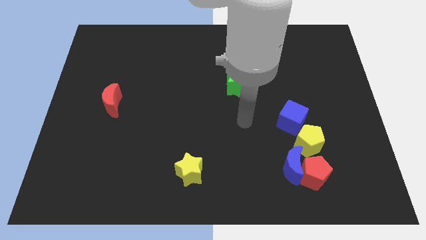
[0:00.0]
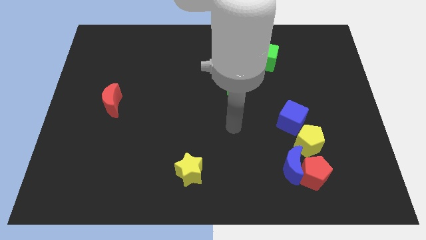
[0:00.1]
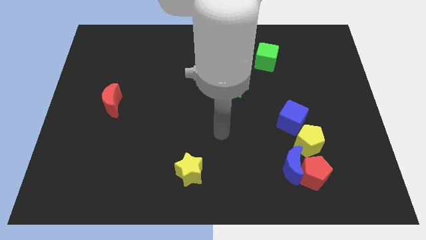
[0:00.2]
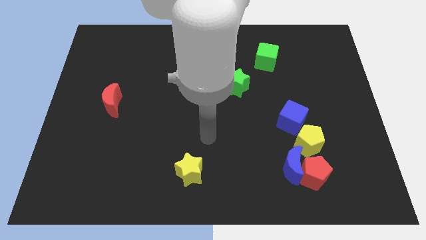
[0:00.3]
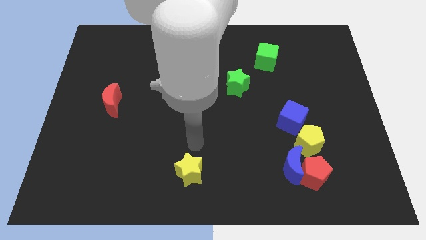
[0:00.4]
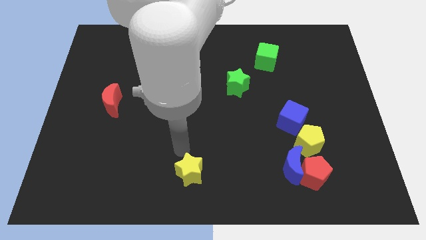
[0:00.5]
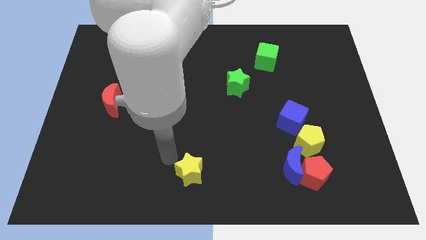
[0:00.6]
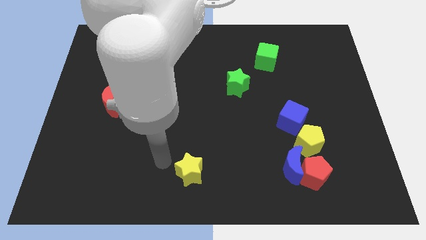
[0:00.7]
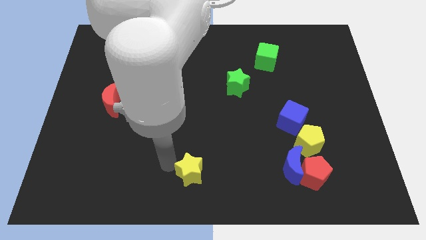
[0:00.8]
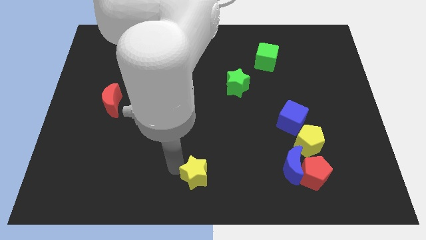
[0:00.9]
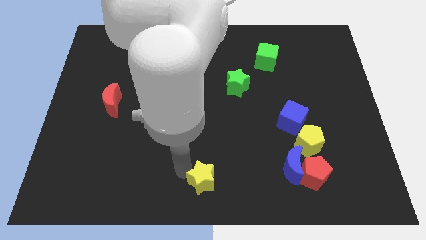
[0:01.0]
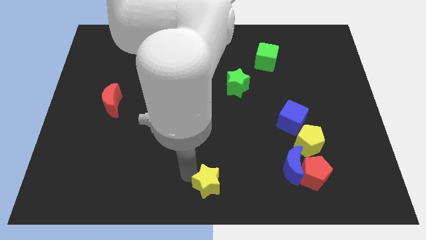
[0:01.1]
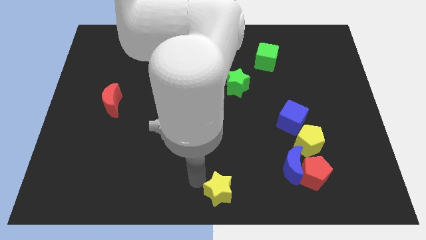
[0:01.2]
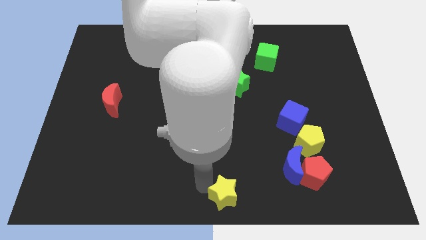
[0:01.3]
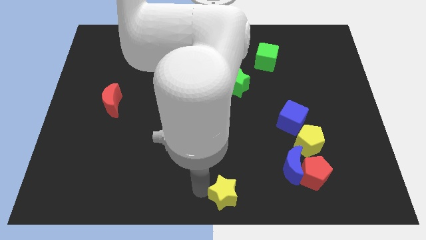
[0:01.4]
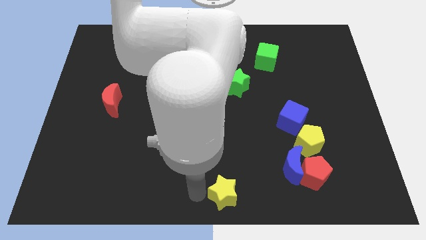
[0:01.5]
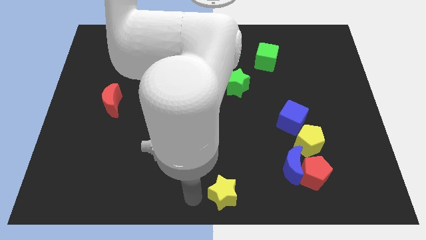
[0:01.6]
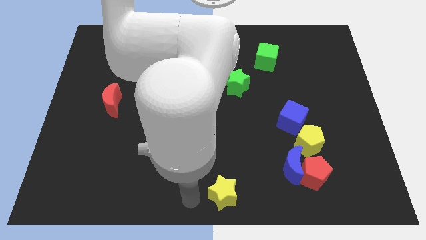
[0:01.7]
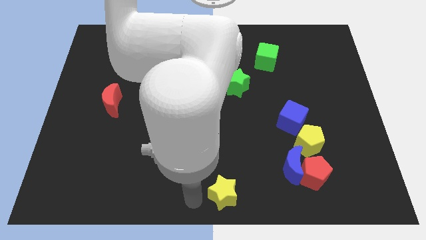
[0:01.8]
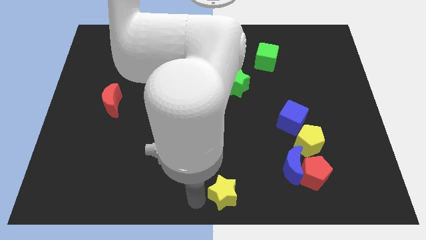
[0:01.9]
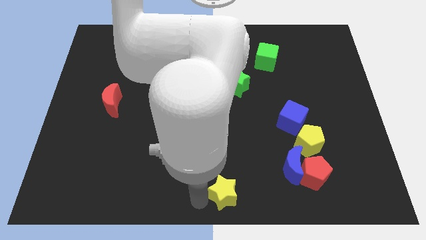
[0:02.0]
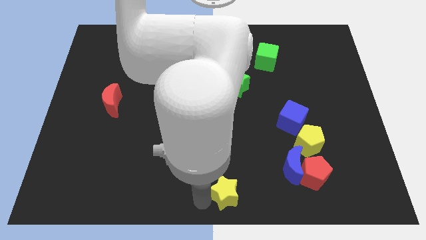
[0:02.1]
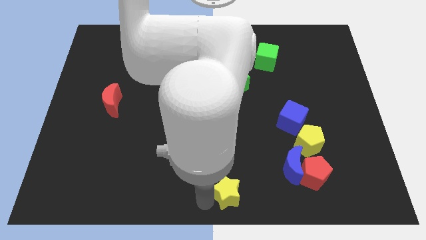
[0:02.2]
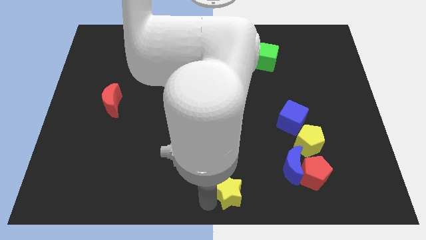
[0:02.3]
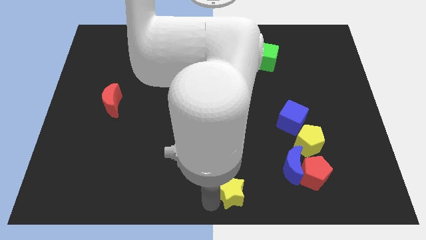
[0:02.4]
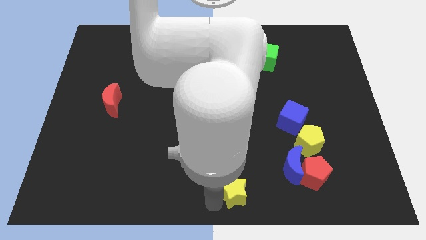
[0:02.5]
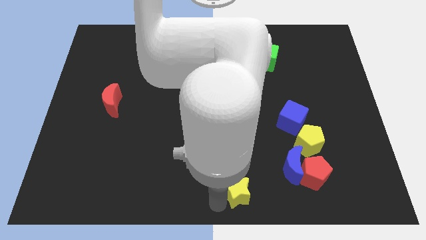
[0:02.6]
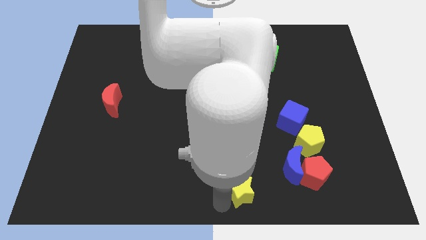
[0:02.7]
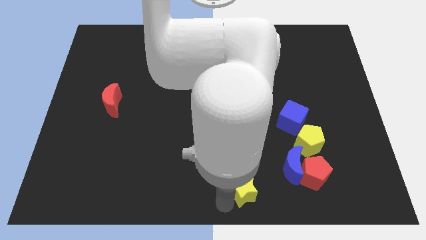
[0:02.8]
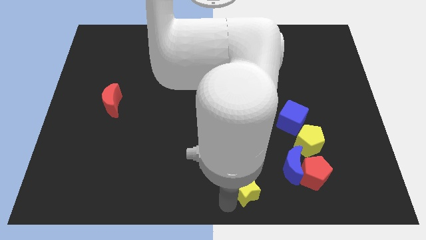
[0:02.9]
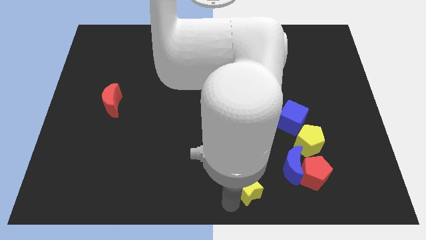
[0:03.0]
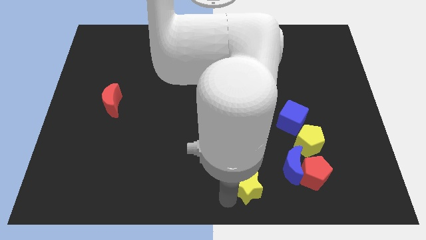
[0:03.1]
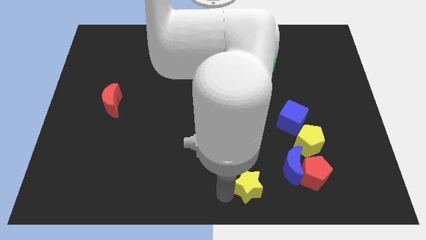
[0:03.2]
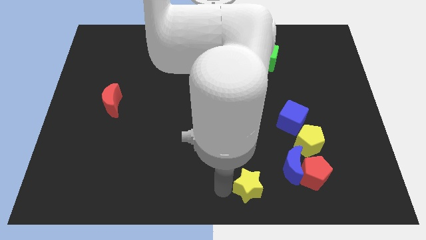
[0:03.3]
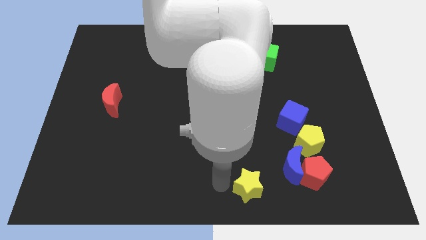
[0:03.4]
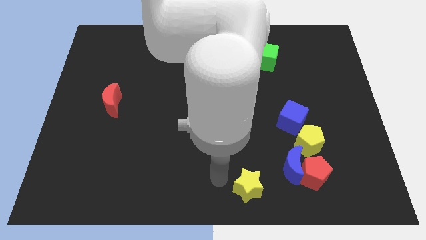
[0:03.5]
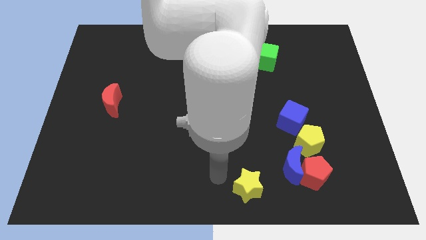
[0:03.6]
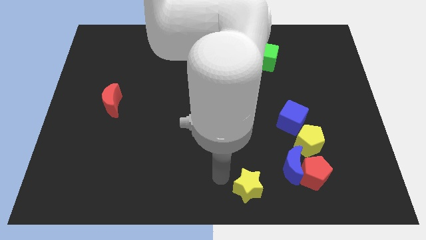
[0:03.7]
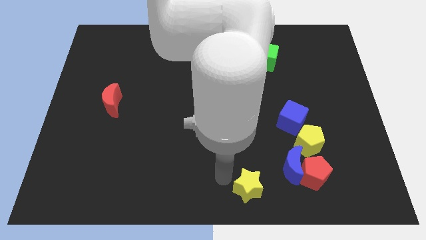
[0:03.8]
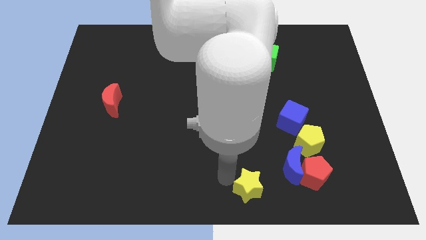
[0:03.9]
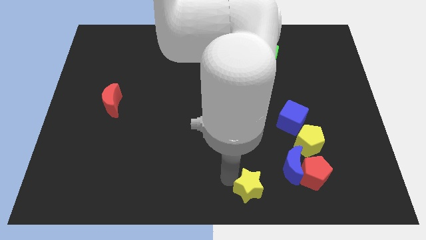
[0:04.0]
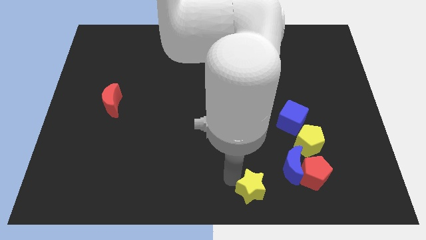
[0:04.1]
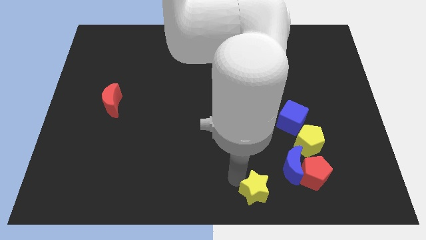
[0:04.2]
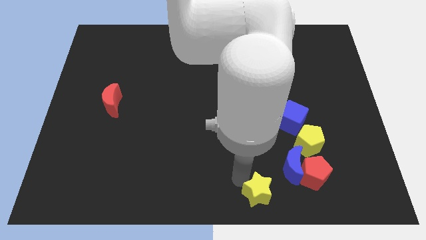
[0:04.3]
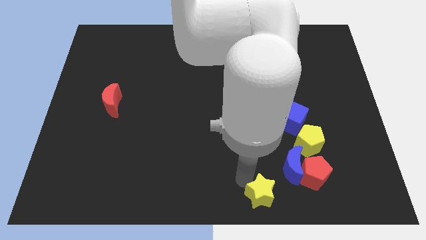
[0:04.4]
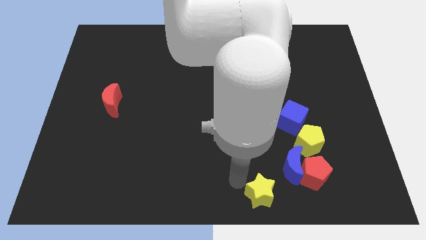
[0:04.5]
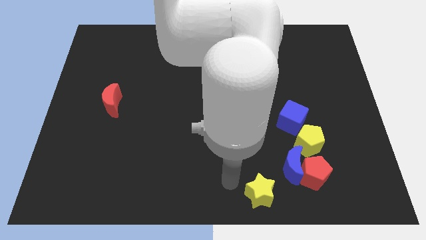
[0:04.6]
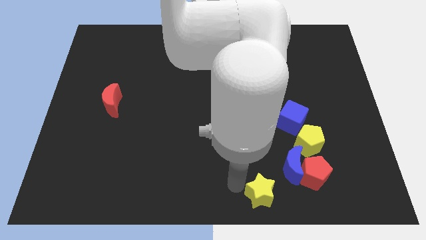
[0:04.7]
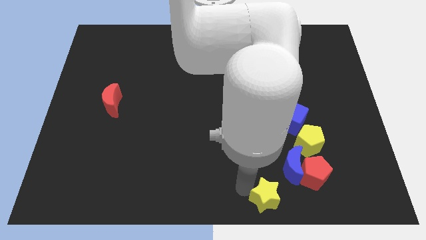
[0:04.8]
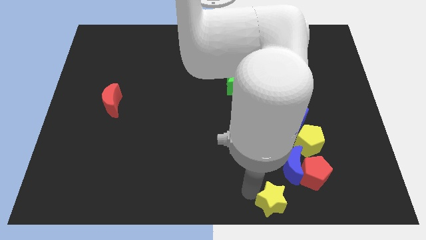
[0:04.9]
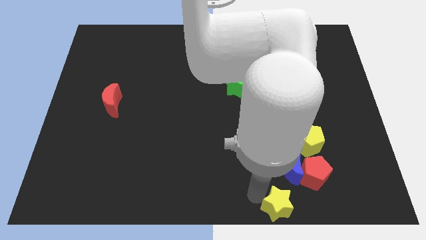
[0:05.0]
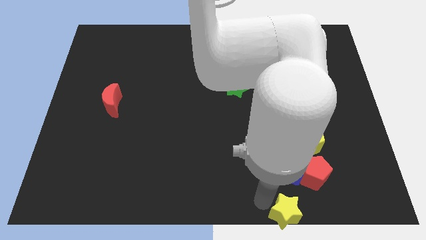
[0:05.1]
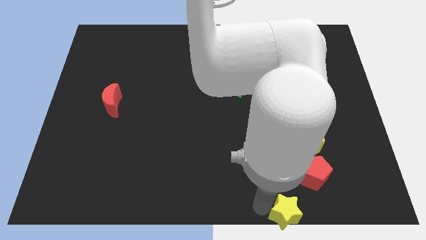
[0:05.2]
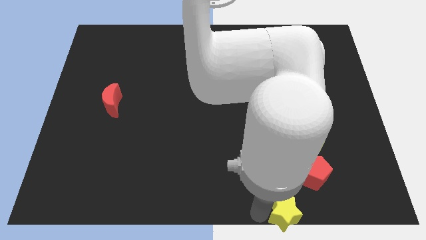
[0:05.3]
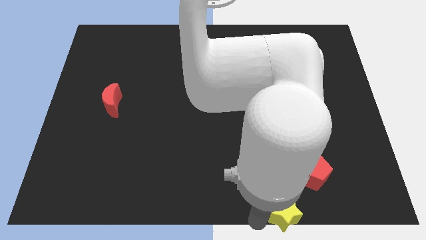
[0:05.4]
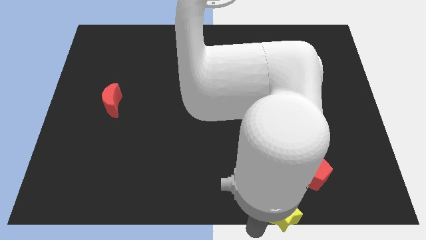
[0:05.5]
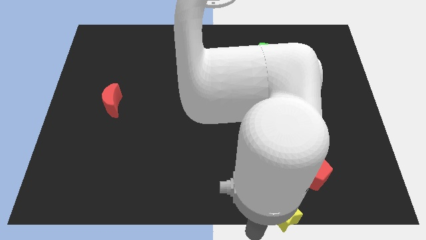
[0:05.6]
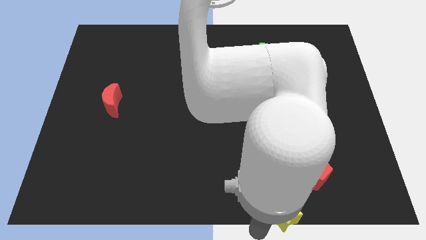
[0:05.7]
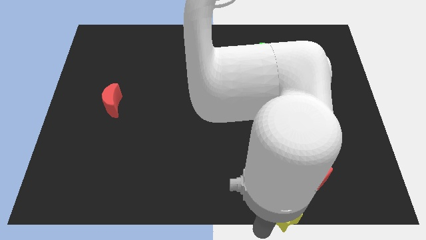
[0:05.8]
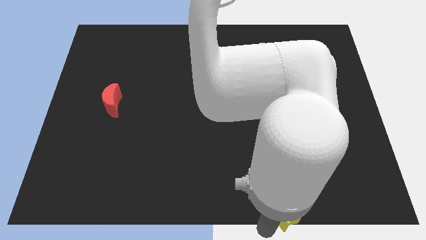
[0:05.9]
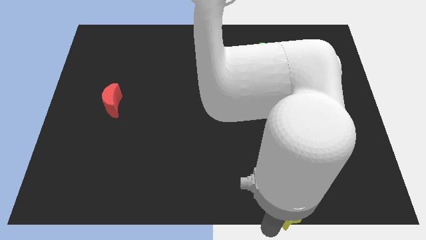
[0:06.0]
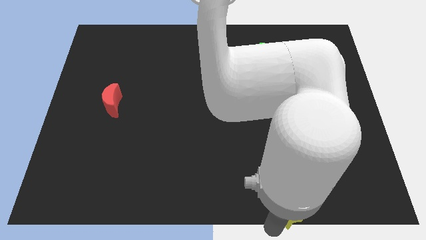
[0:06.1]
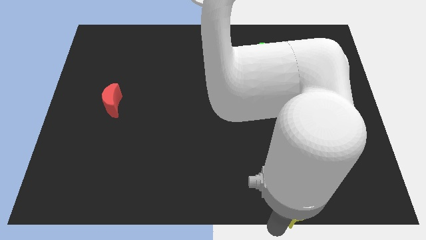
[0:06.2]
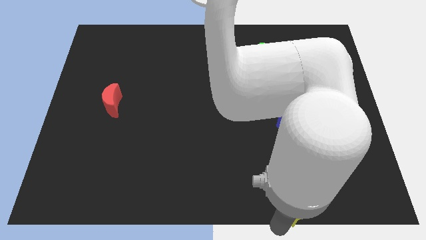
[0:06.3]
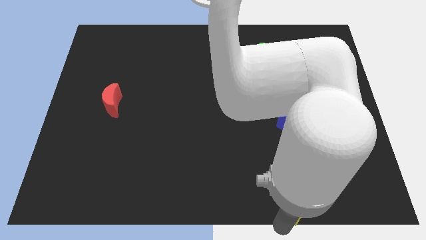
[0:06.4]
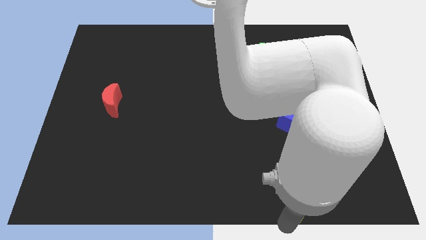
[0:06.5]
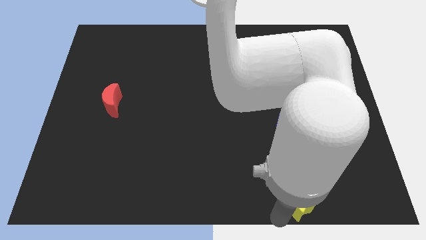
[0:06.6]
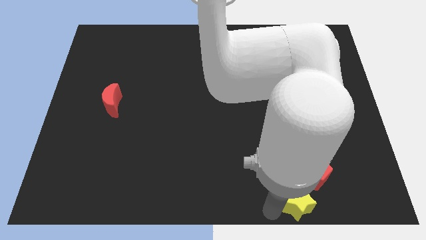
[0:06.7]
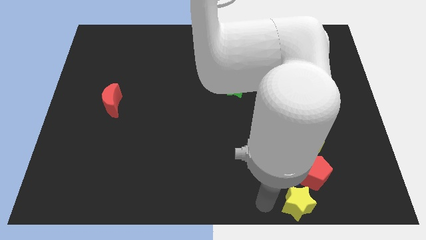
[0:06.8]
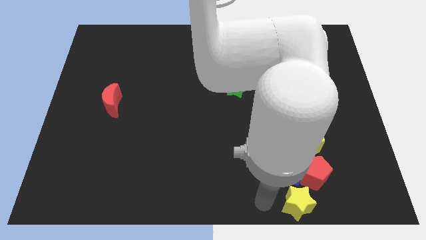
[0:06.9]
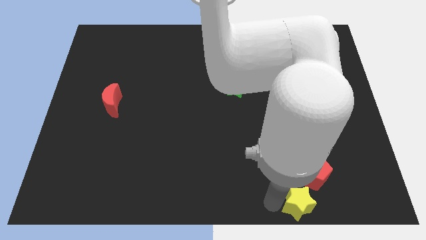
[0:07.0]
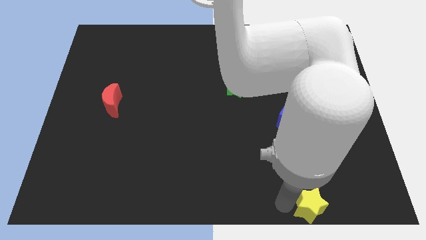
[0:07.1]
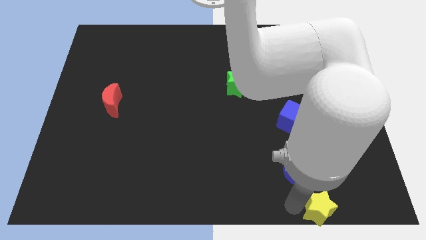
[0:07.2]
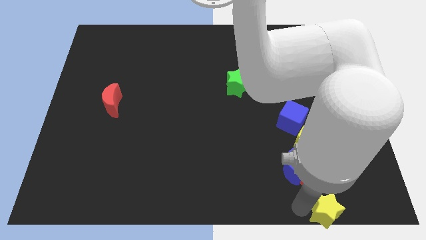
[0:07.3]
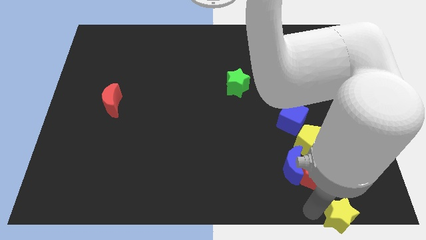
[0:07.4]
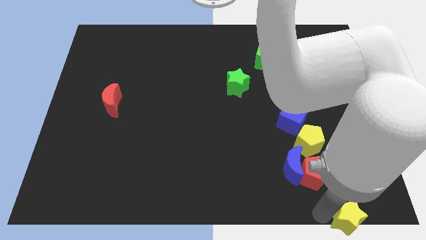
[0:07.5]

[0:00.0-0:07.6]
push the yellow star to the bottom right

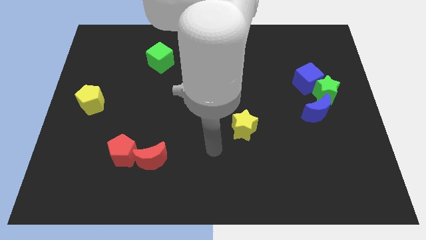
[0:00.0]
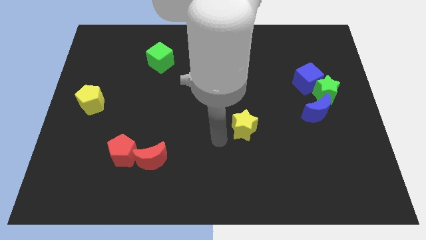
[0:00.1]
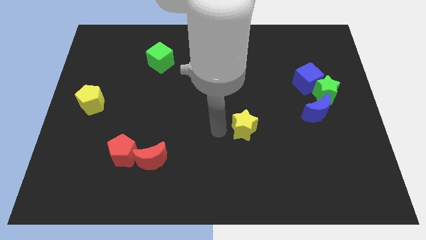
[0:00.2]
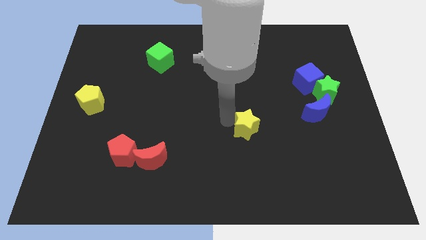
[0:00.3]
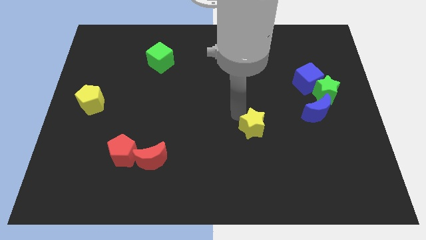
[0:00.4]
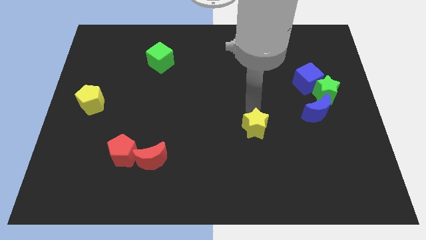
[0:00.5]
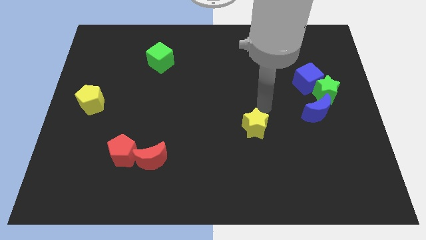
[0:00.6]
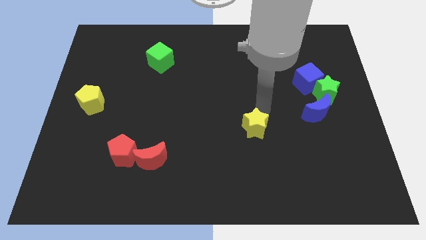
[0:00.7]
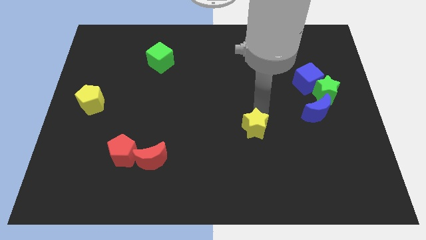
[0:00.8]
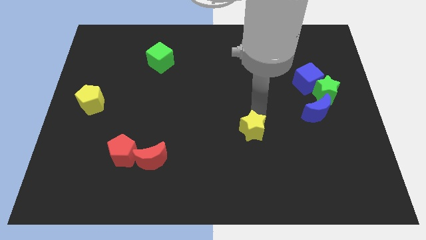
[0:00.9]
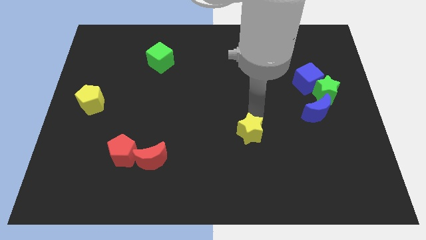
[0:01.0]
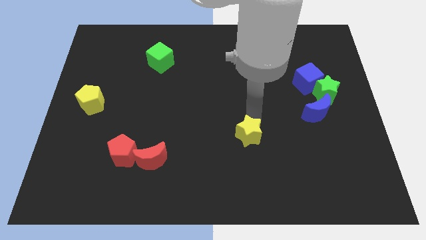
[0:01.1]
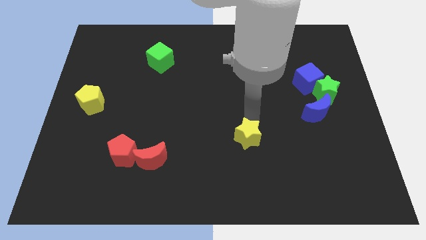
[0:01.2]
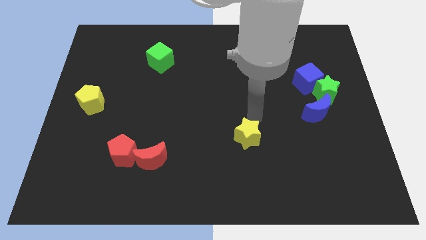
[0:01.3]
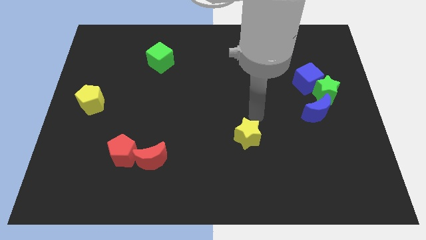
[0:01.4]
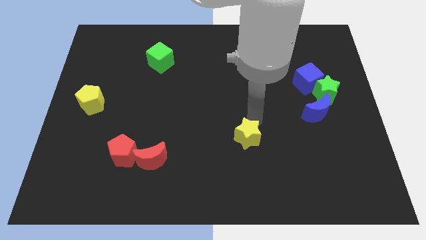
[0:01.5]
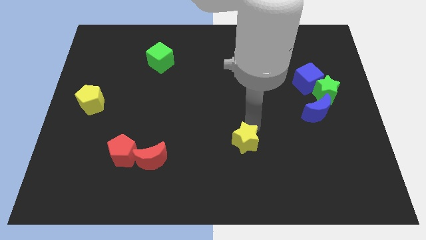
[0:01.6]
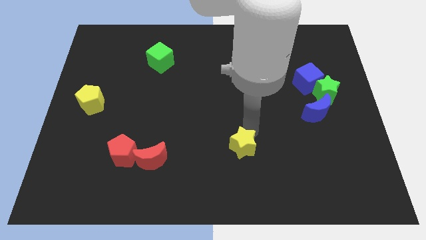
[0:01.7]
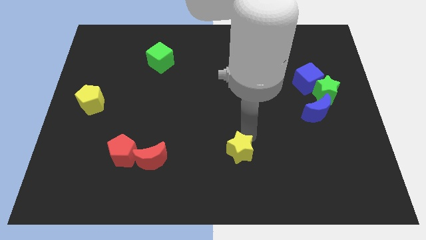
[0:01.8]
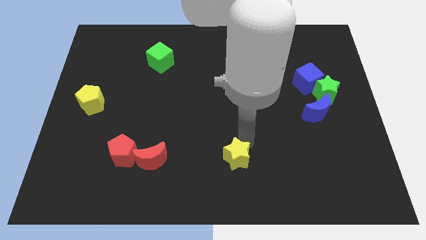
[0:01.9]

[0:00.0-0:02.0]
slide the yellow star to the bottom
